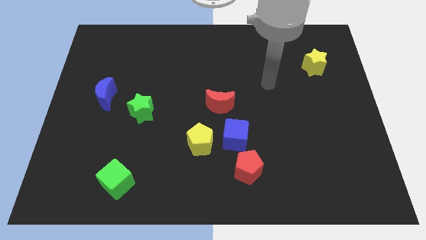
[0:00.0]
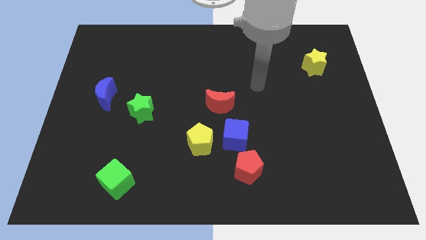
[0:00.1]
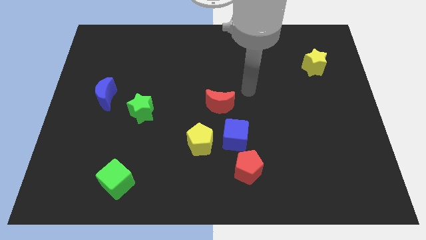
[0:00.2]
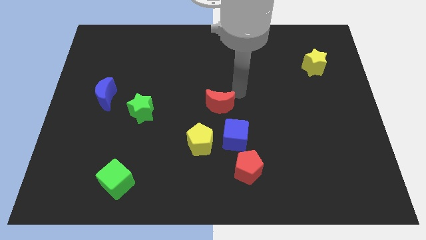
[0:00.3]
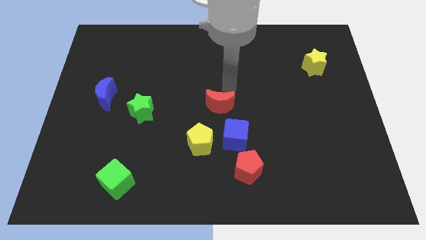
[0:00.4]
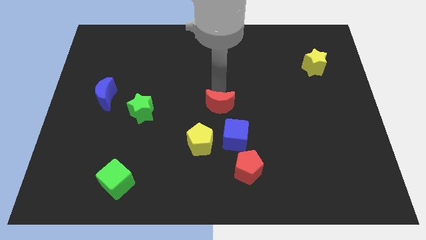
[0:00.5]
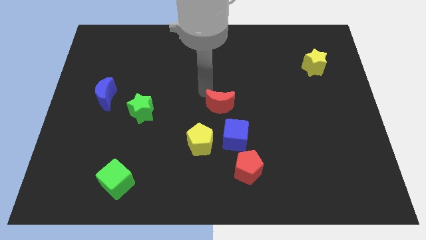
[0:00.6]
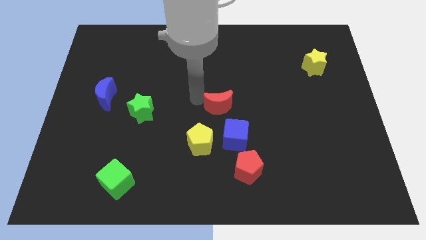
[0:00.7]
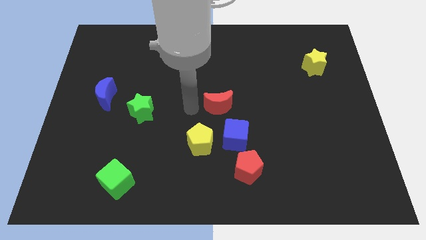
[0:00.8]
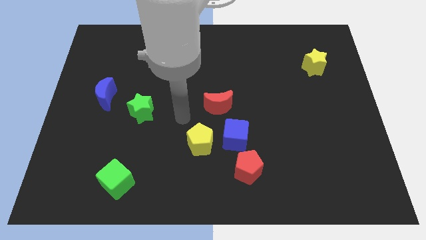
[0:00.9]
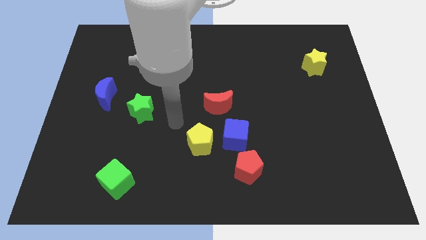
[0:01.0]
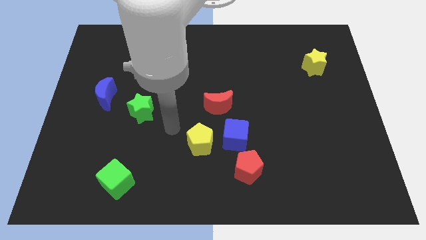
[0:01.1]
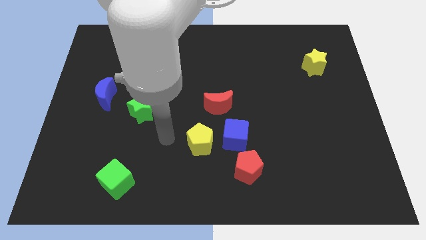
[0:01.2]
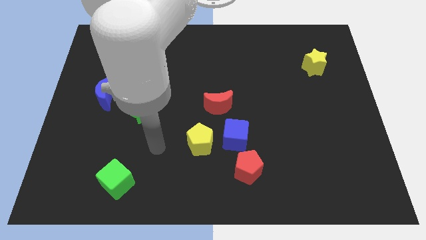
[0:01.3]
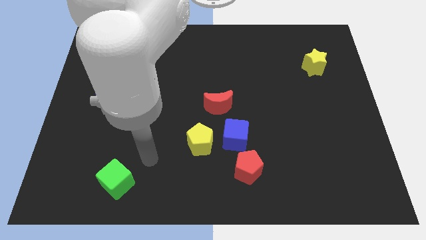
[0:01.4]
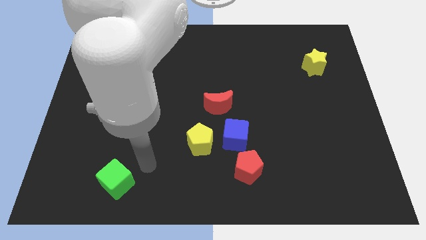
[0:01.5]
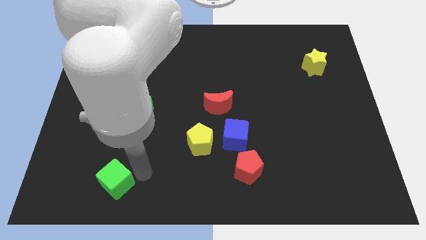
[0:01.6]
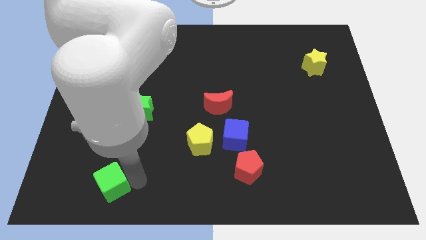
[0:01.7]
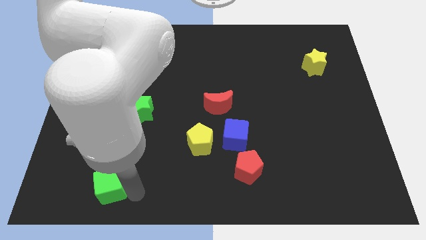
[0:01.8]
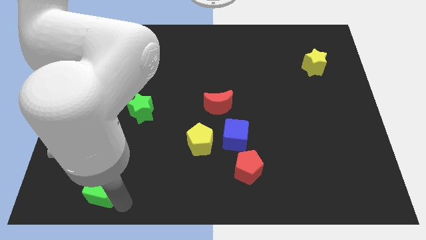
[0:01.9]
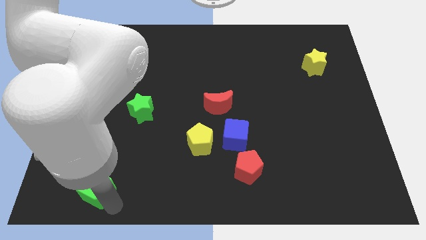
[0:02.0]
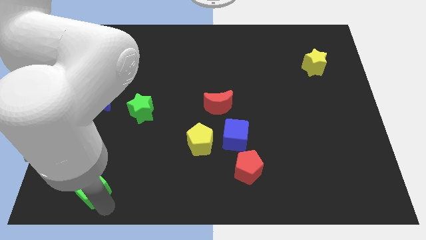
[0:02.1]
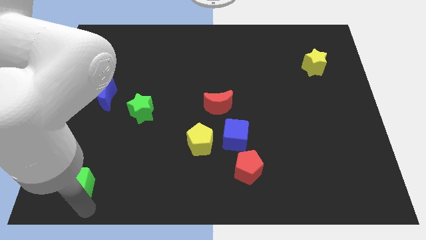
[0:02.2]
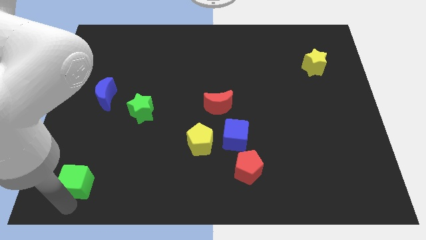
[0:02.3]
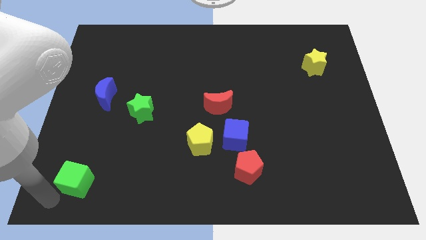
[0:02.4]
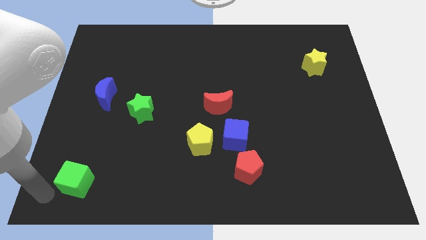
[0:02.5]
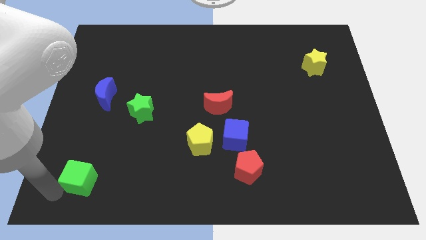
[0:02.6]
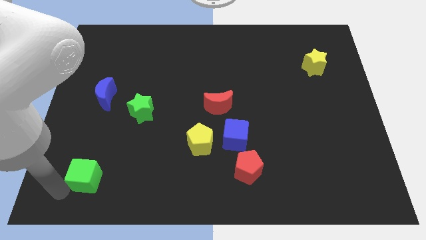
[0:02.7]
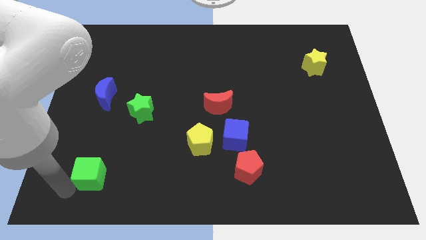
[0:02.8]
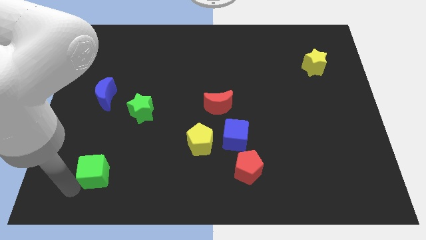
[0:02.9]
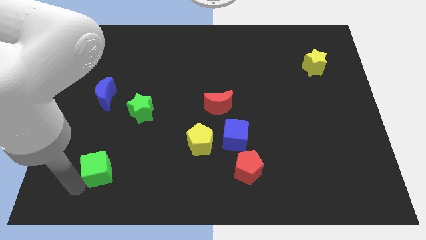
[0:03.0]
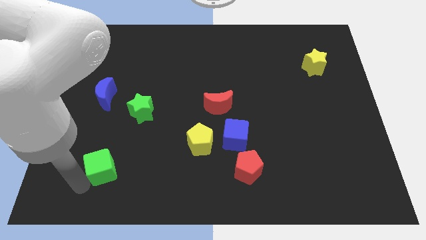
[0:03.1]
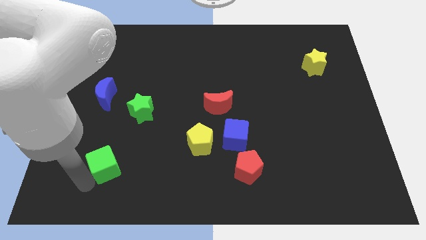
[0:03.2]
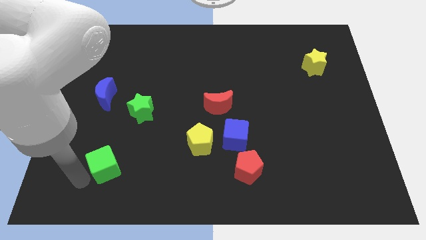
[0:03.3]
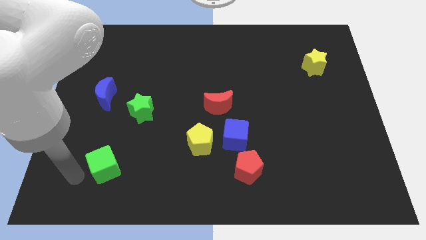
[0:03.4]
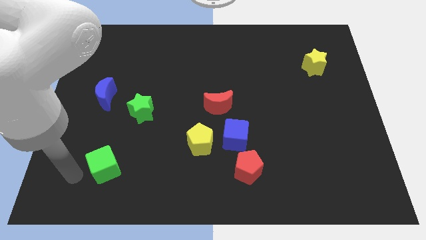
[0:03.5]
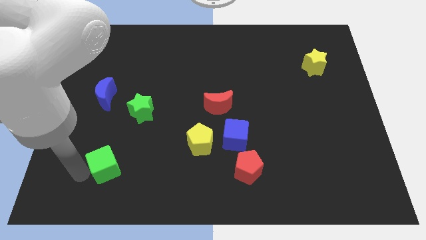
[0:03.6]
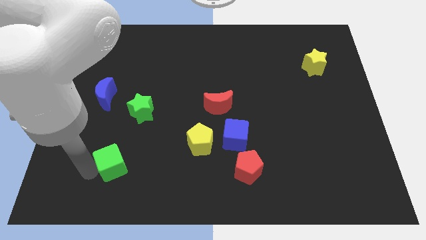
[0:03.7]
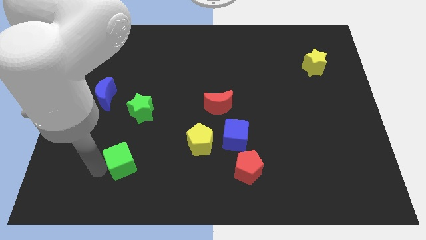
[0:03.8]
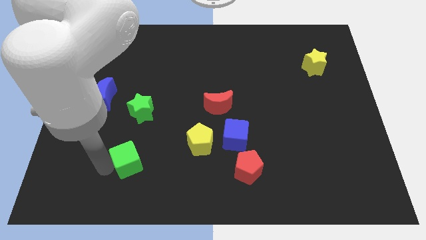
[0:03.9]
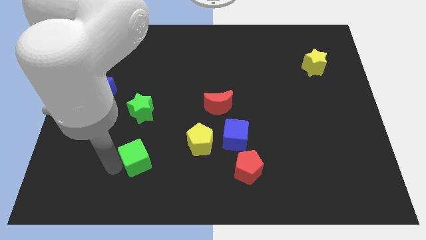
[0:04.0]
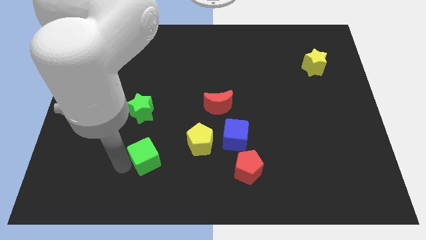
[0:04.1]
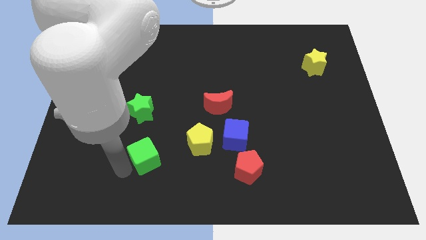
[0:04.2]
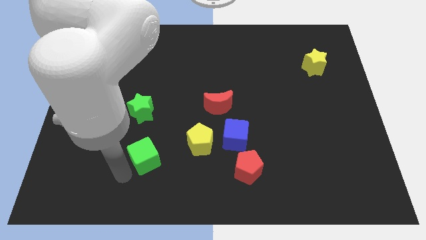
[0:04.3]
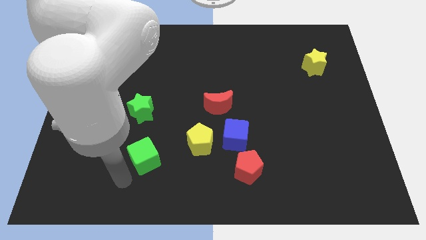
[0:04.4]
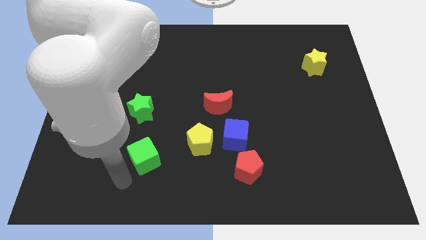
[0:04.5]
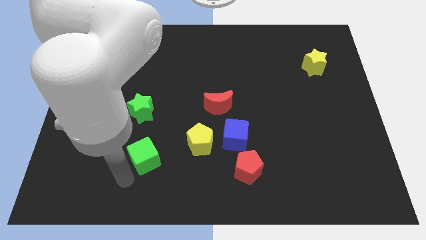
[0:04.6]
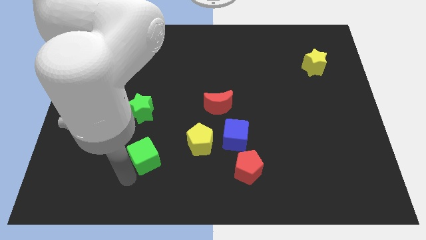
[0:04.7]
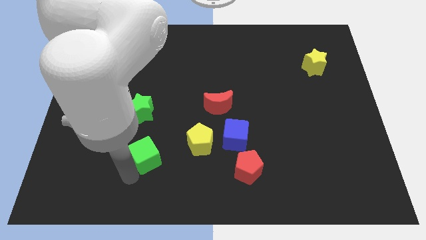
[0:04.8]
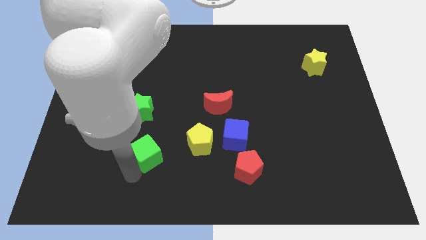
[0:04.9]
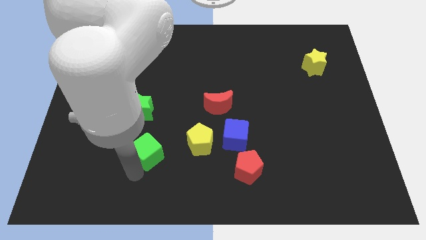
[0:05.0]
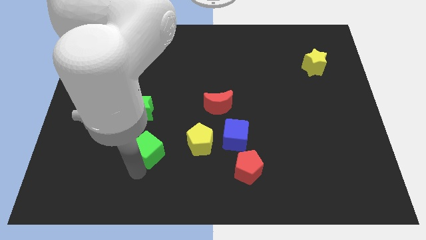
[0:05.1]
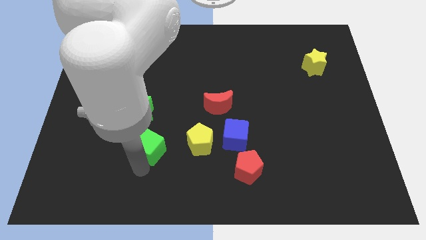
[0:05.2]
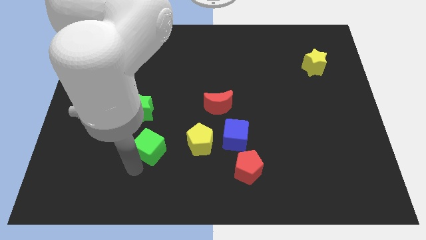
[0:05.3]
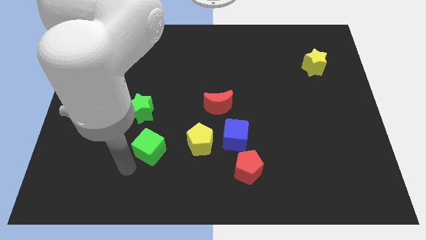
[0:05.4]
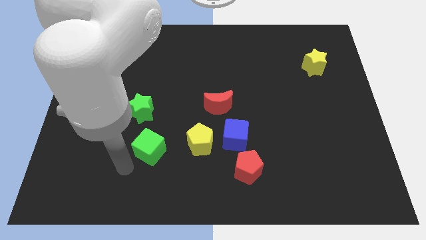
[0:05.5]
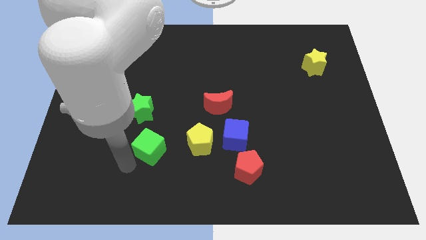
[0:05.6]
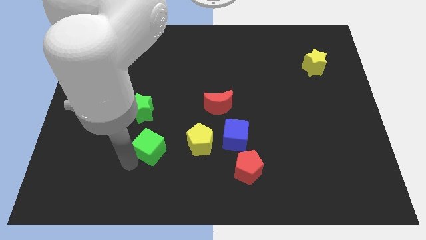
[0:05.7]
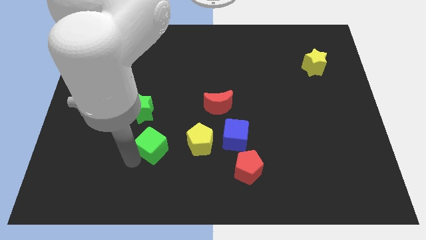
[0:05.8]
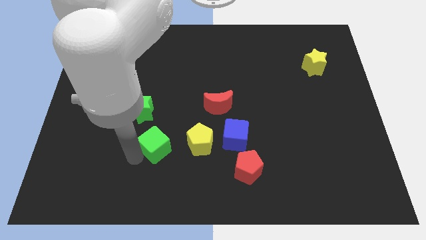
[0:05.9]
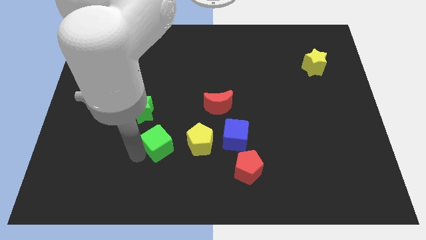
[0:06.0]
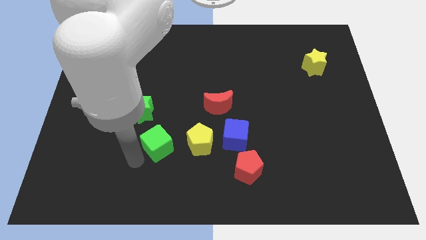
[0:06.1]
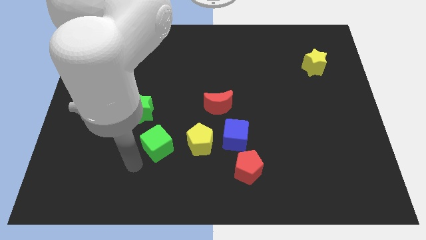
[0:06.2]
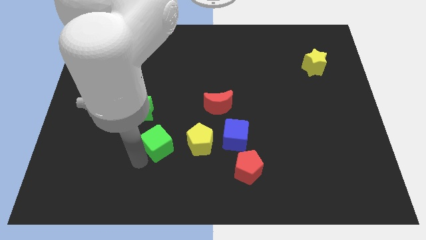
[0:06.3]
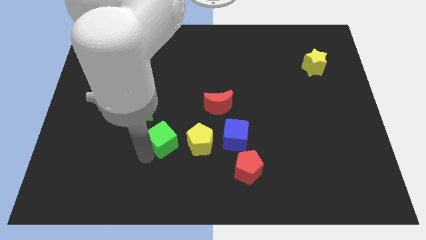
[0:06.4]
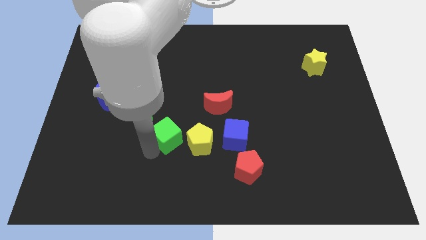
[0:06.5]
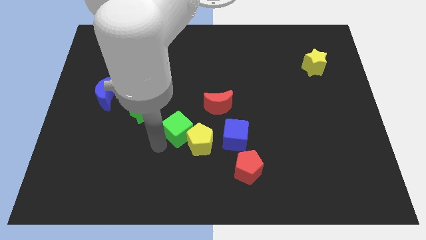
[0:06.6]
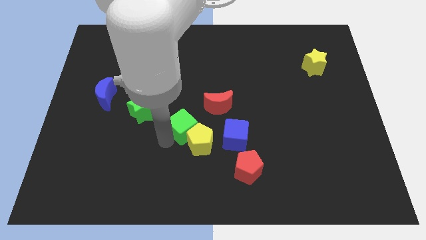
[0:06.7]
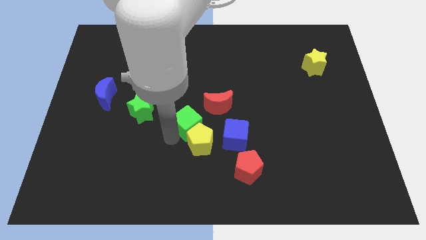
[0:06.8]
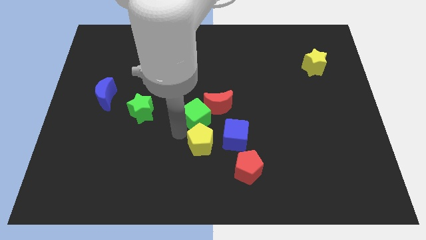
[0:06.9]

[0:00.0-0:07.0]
move the green cube towards the red moon

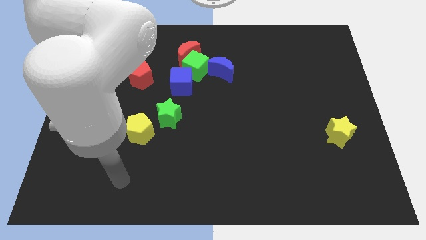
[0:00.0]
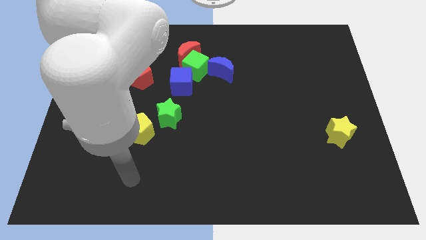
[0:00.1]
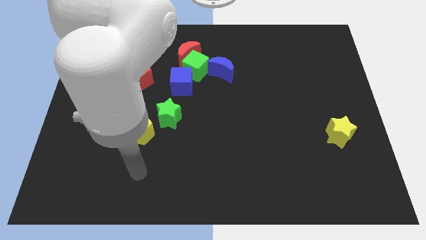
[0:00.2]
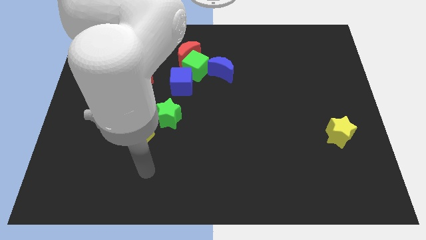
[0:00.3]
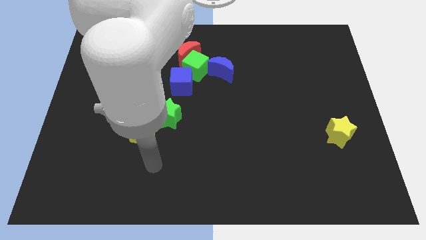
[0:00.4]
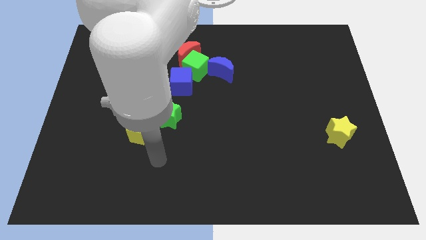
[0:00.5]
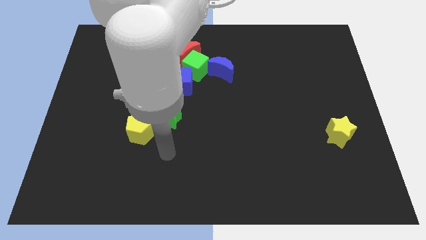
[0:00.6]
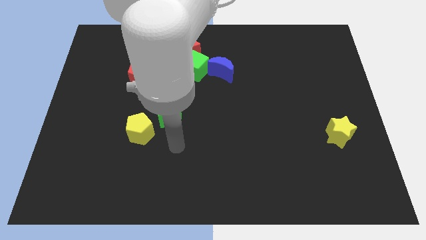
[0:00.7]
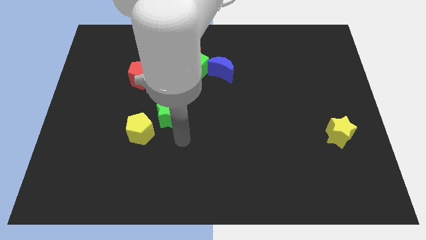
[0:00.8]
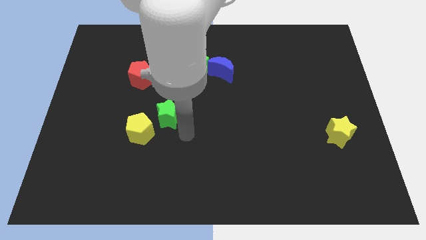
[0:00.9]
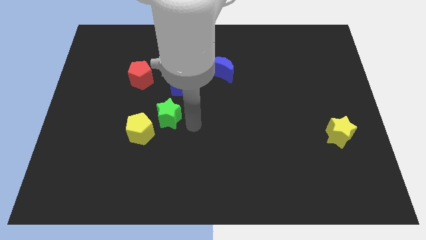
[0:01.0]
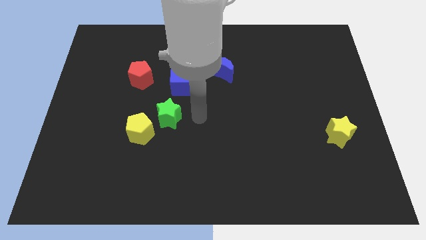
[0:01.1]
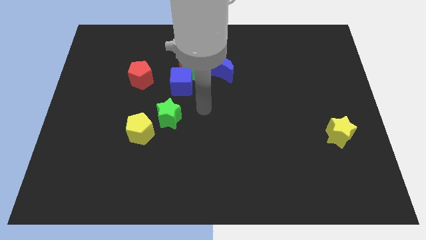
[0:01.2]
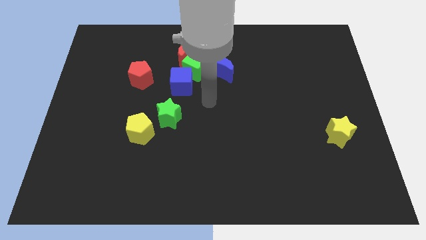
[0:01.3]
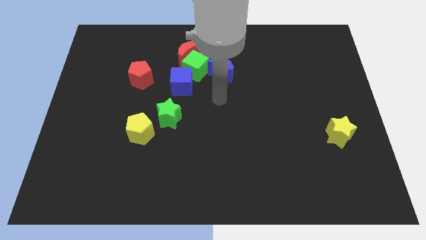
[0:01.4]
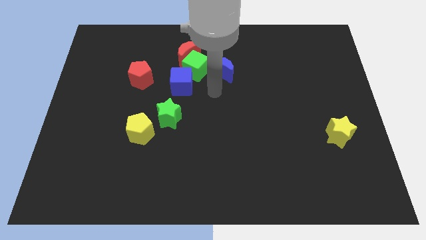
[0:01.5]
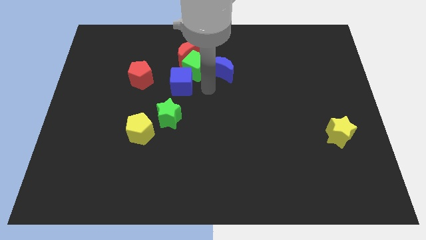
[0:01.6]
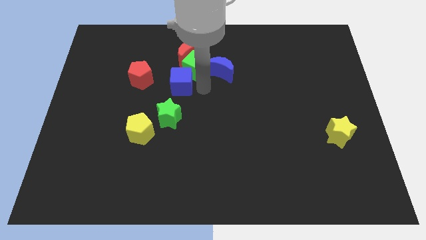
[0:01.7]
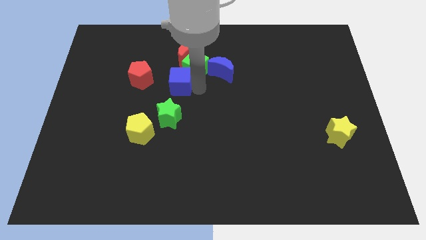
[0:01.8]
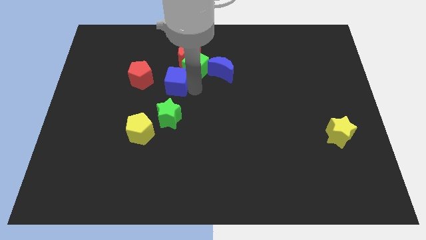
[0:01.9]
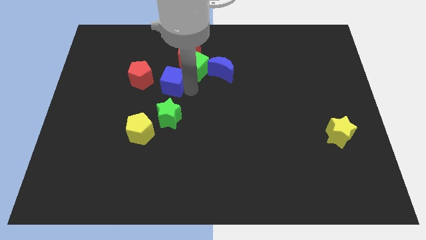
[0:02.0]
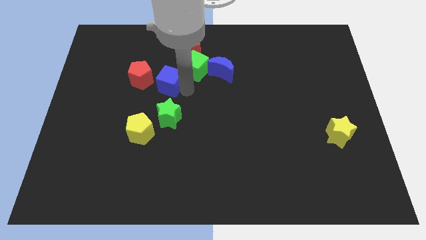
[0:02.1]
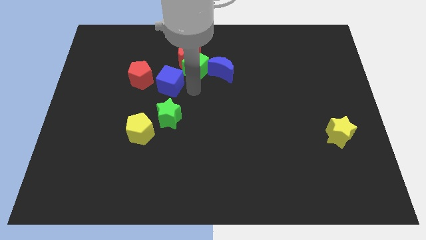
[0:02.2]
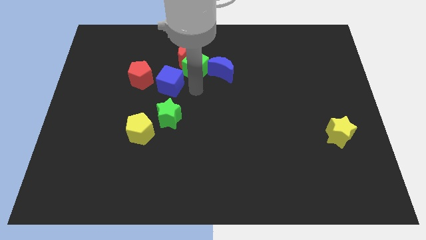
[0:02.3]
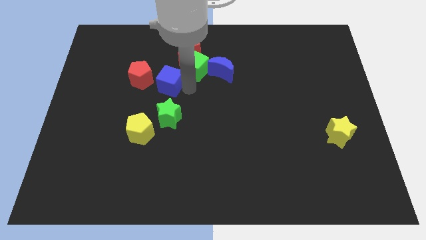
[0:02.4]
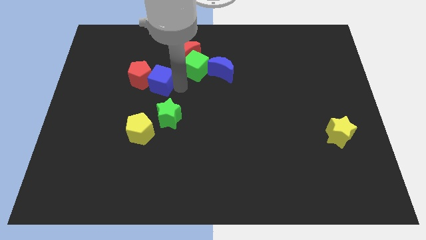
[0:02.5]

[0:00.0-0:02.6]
move the blue cube to the red pentagon
